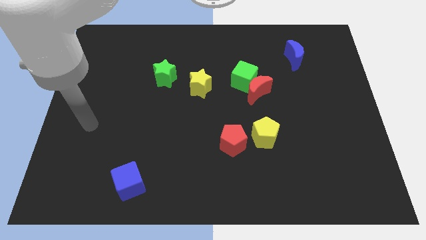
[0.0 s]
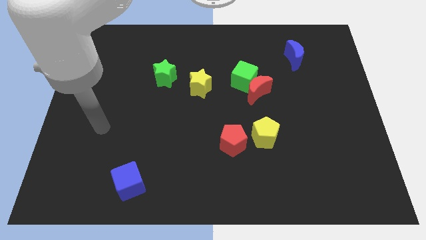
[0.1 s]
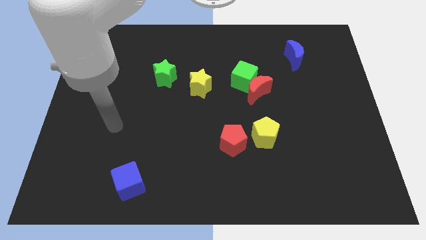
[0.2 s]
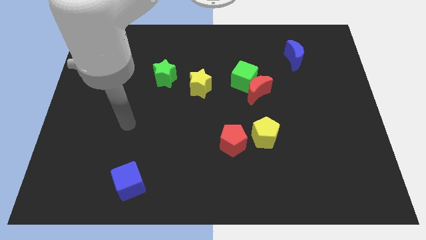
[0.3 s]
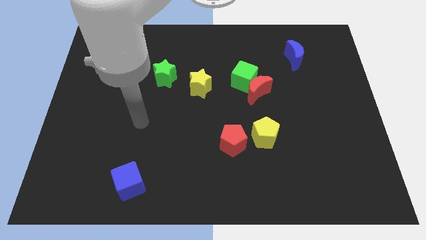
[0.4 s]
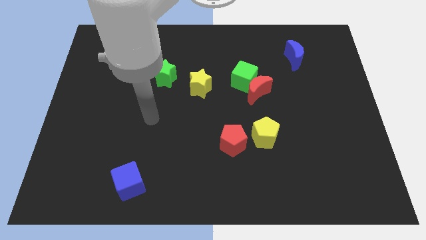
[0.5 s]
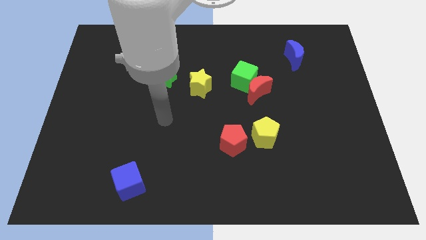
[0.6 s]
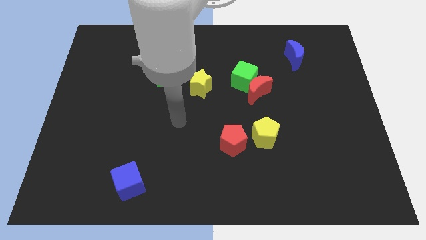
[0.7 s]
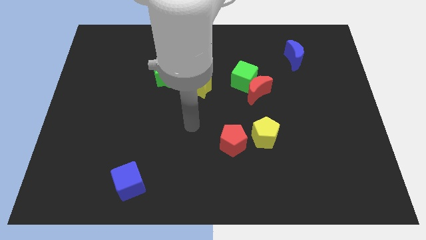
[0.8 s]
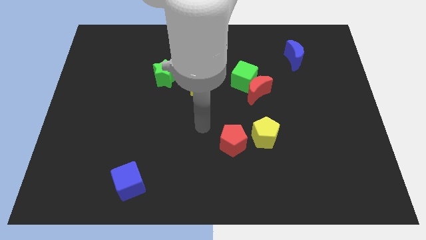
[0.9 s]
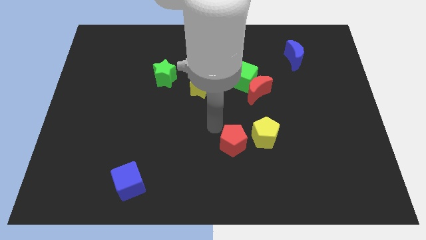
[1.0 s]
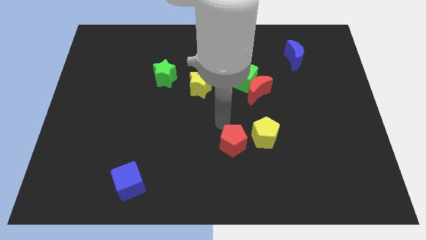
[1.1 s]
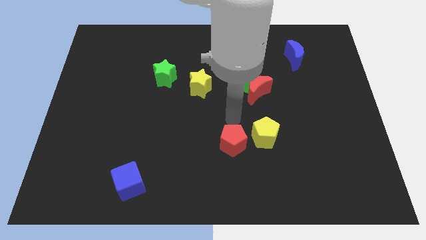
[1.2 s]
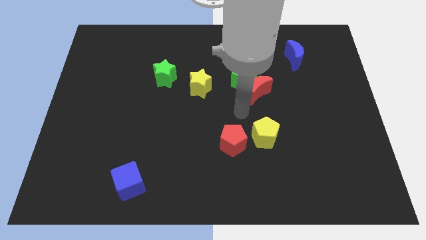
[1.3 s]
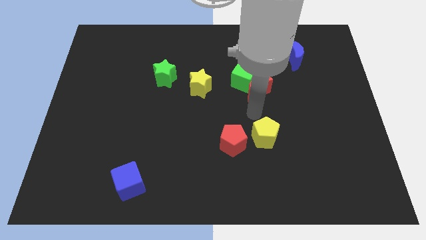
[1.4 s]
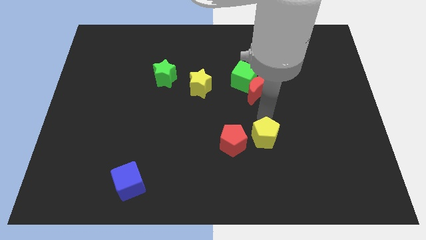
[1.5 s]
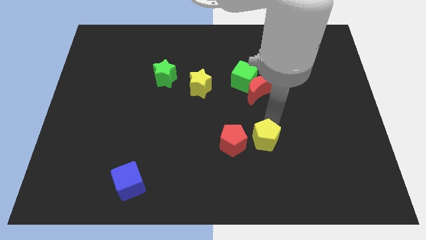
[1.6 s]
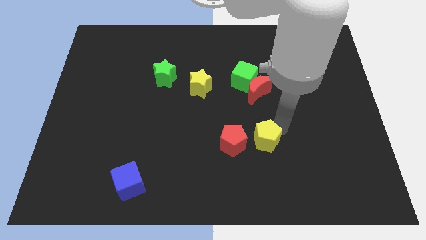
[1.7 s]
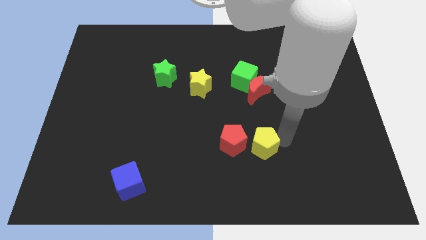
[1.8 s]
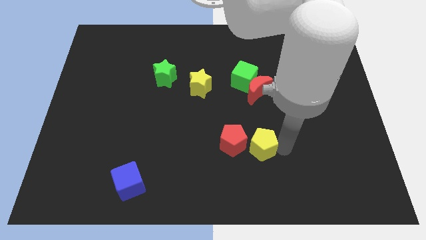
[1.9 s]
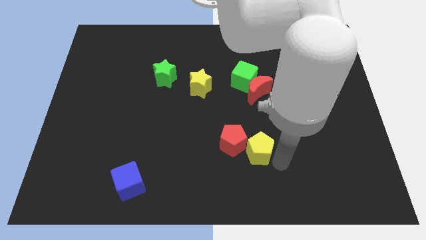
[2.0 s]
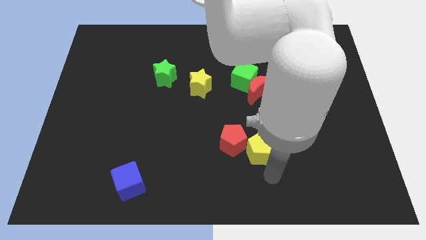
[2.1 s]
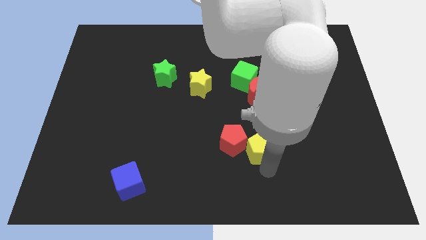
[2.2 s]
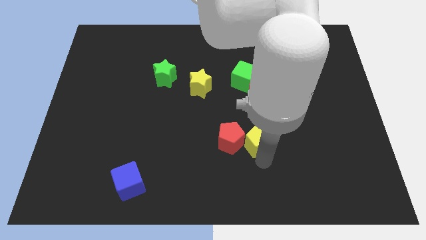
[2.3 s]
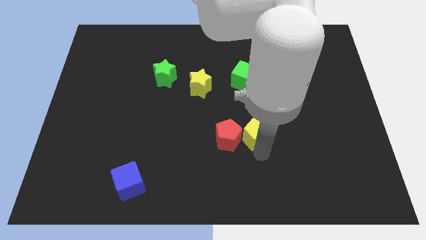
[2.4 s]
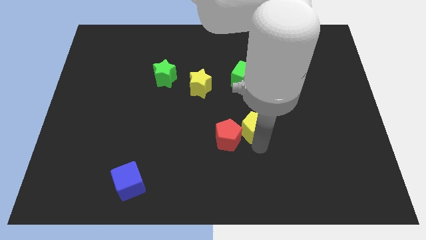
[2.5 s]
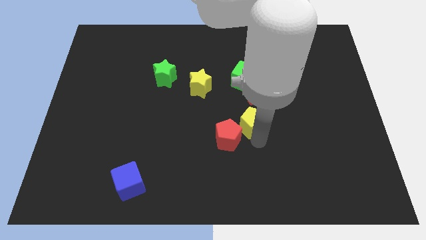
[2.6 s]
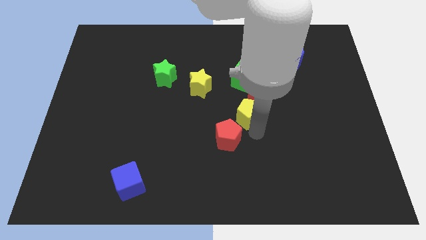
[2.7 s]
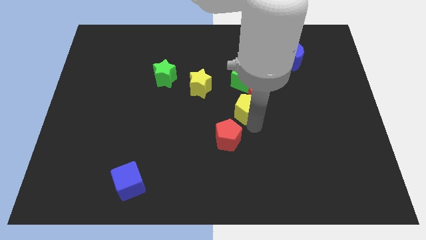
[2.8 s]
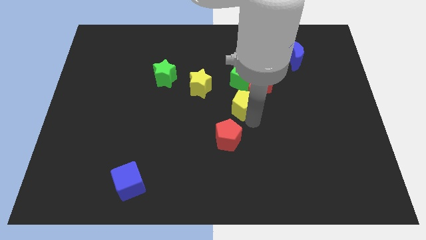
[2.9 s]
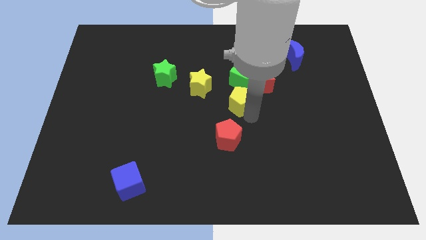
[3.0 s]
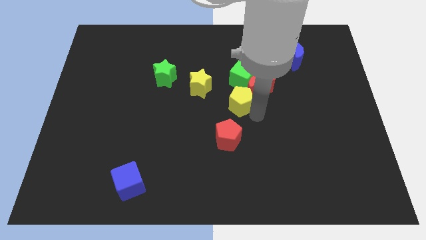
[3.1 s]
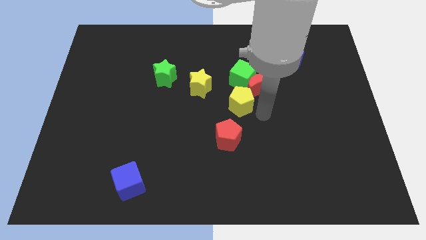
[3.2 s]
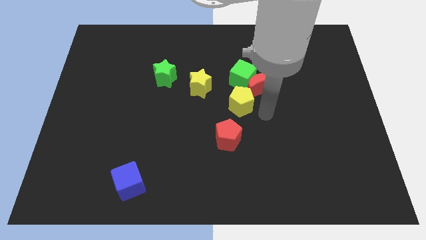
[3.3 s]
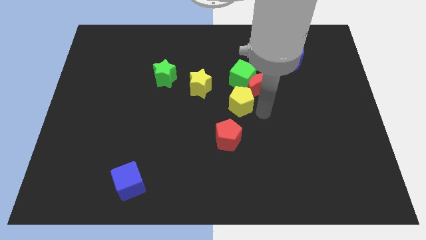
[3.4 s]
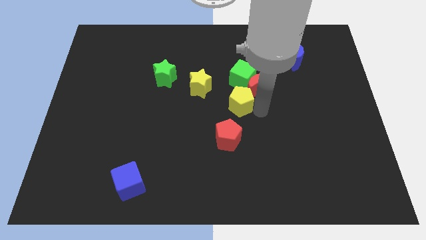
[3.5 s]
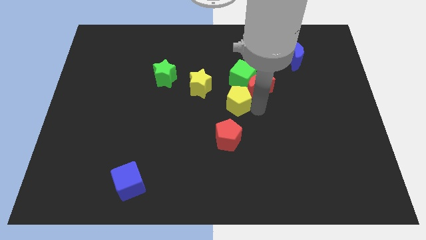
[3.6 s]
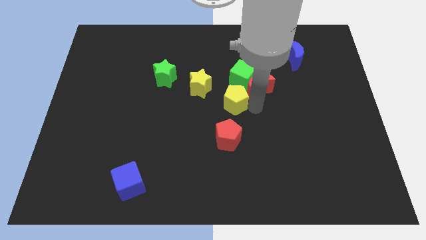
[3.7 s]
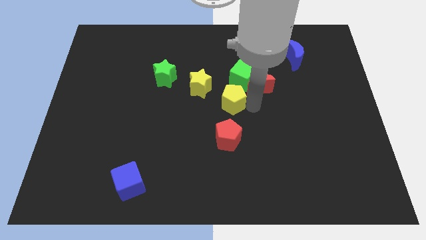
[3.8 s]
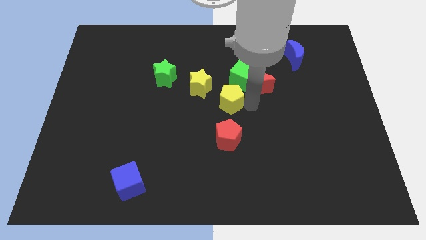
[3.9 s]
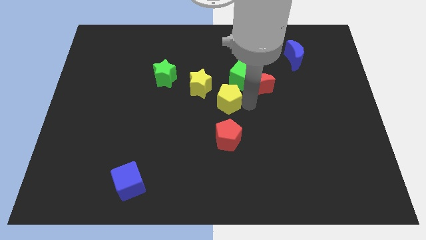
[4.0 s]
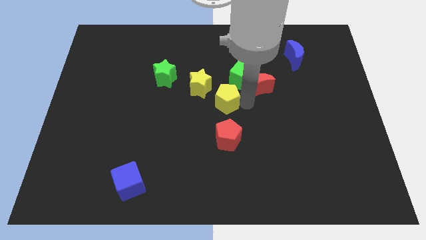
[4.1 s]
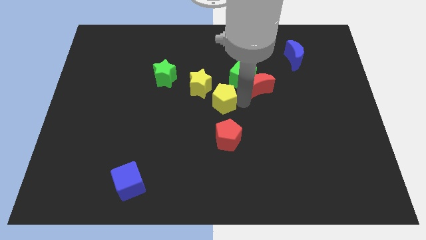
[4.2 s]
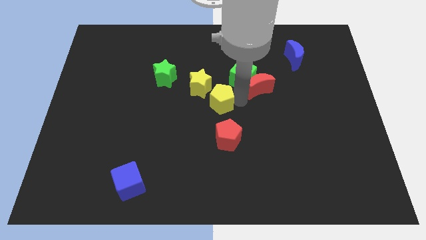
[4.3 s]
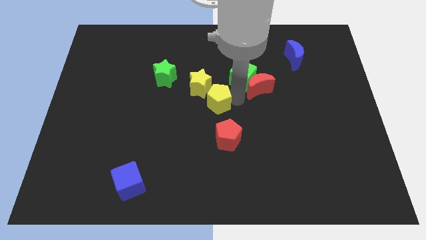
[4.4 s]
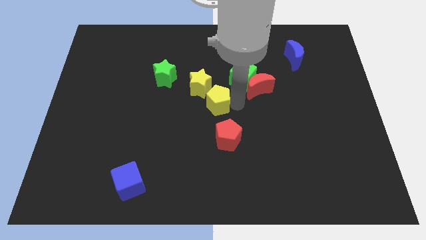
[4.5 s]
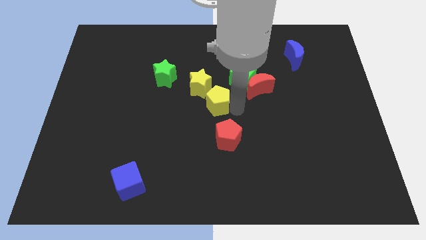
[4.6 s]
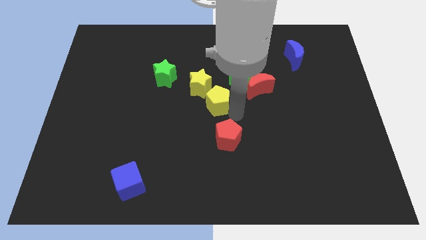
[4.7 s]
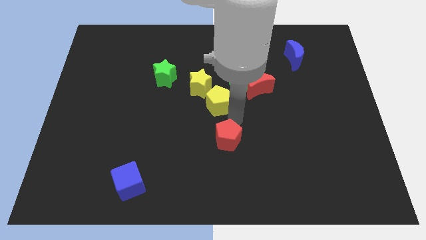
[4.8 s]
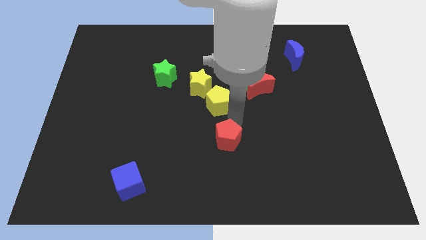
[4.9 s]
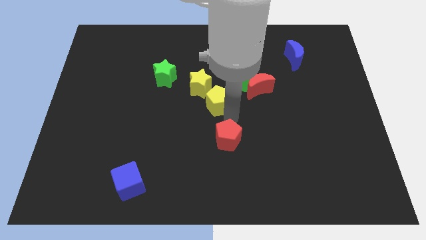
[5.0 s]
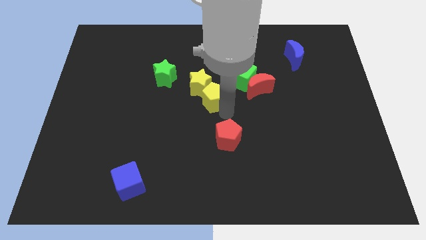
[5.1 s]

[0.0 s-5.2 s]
push the yellow pentagon next to the yellow star

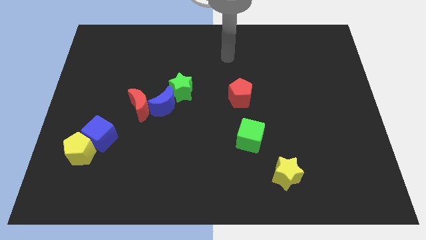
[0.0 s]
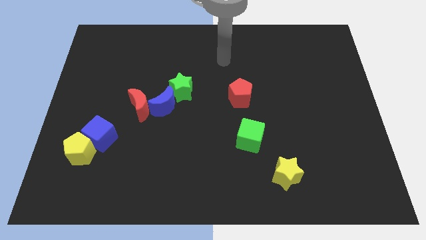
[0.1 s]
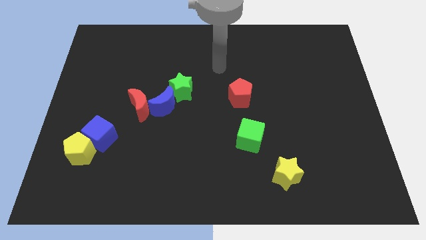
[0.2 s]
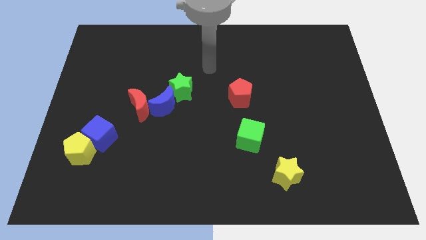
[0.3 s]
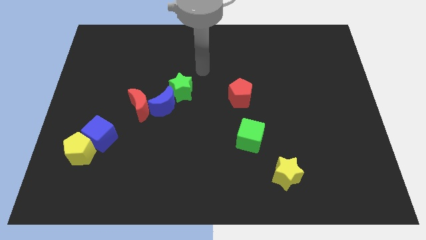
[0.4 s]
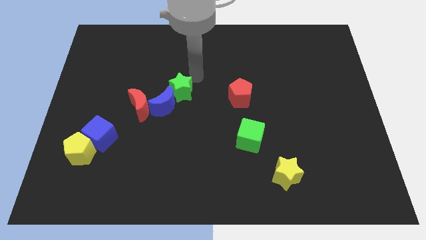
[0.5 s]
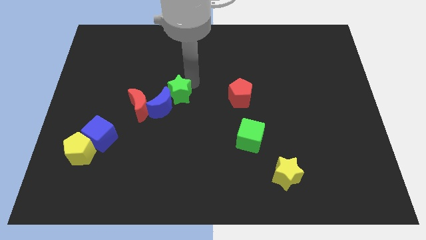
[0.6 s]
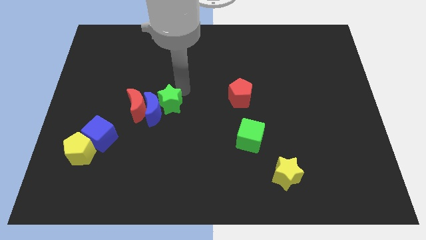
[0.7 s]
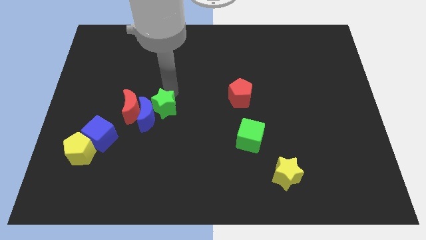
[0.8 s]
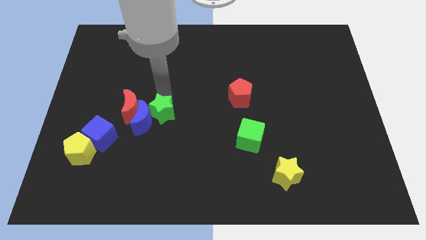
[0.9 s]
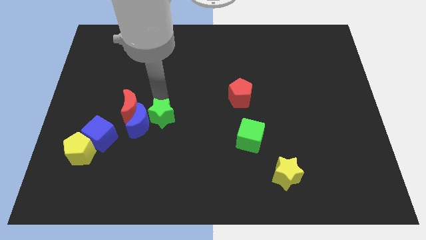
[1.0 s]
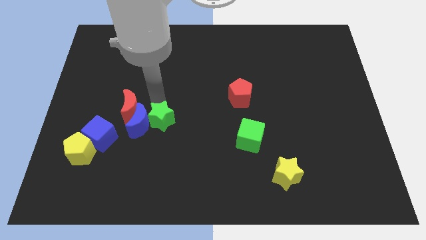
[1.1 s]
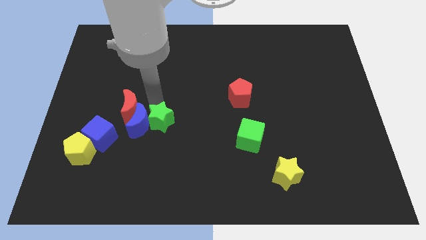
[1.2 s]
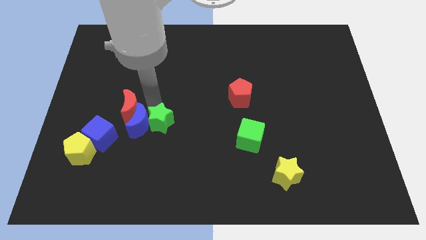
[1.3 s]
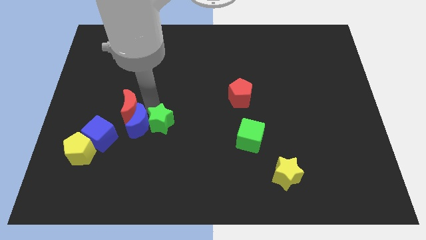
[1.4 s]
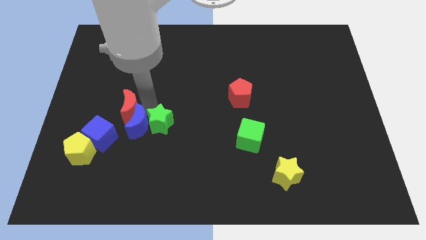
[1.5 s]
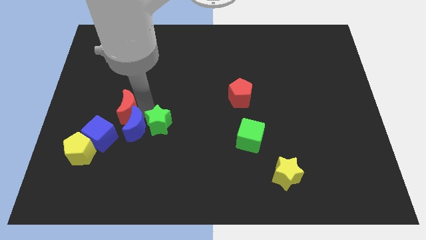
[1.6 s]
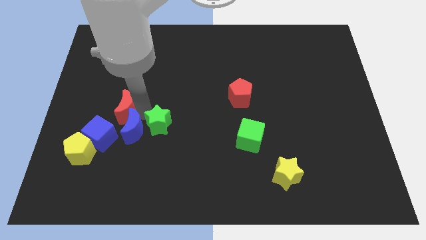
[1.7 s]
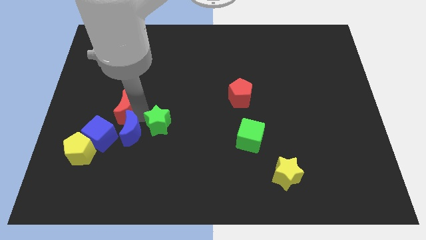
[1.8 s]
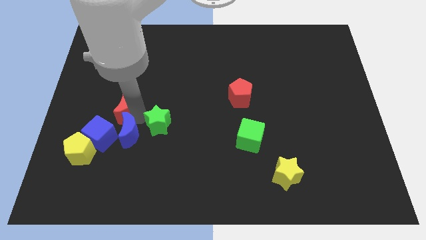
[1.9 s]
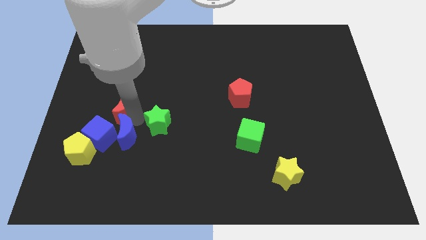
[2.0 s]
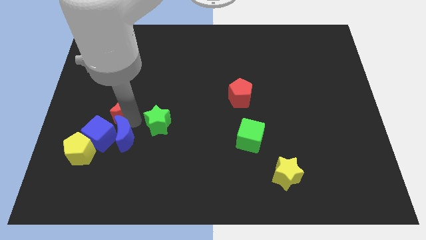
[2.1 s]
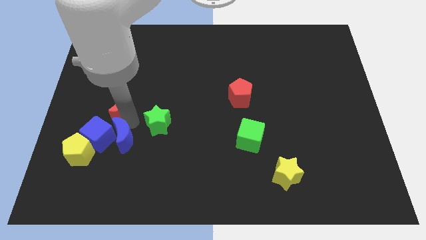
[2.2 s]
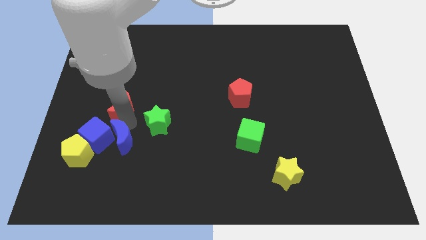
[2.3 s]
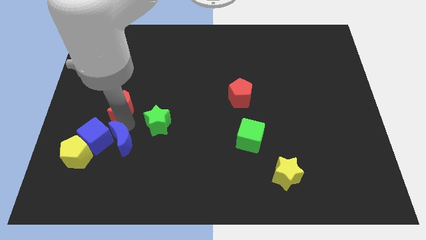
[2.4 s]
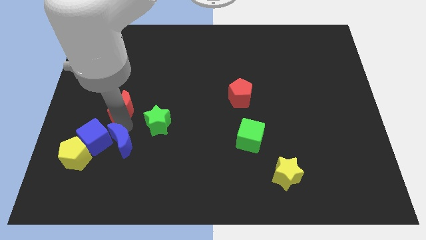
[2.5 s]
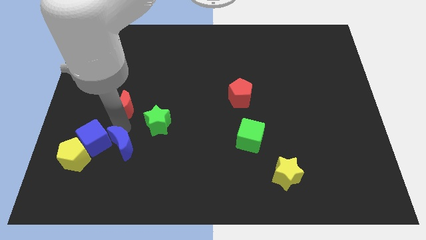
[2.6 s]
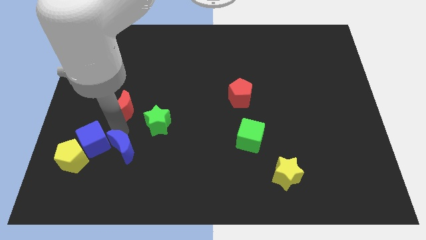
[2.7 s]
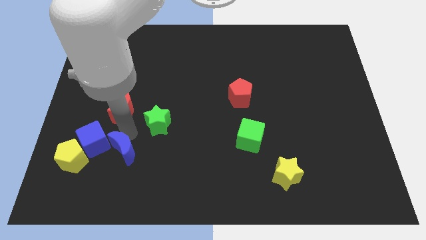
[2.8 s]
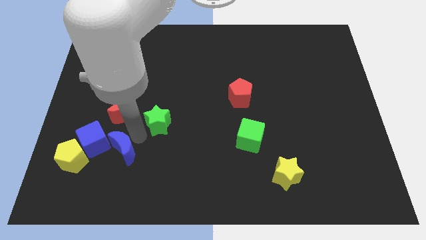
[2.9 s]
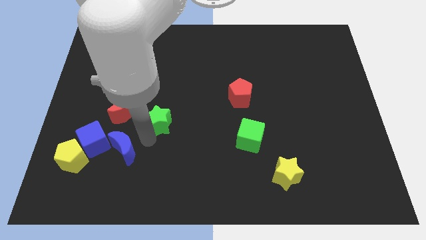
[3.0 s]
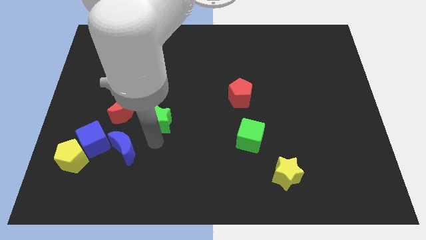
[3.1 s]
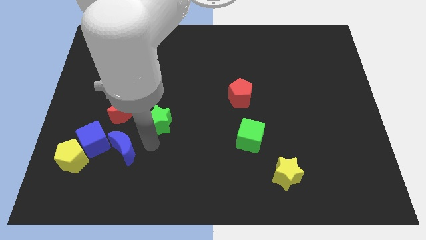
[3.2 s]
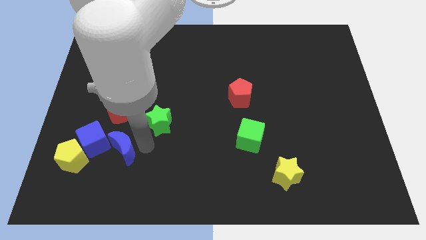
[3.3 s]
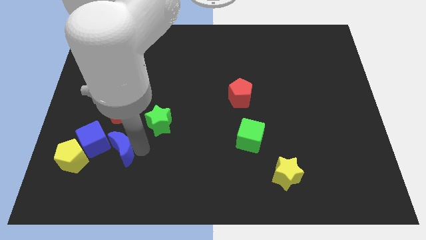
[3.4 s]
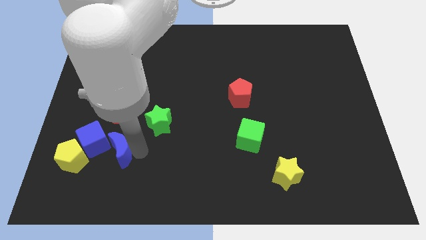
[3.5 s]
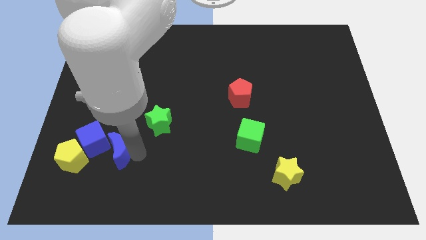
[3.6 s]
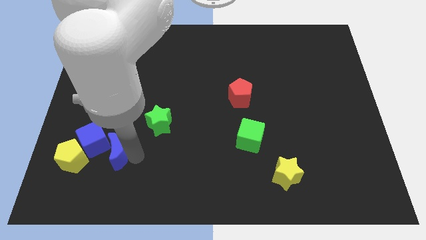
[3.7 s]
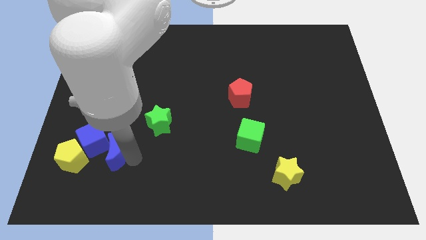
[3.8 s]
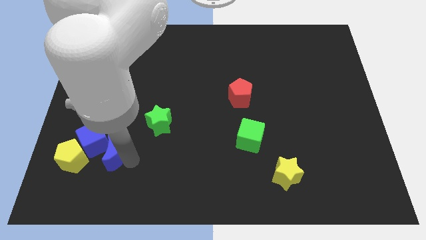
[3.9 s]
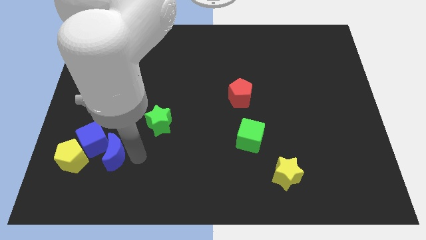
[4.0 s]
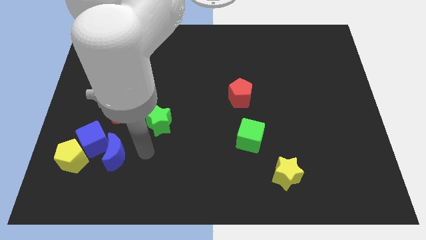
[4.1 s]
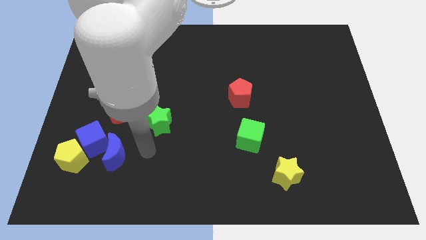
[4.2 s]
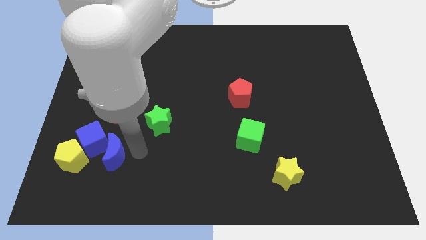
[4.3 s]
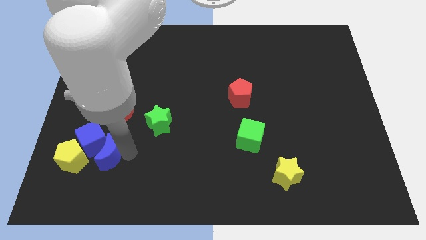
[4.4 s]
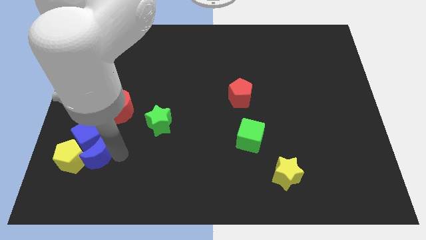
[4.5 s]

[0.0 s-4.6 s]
put the blue moon next to the yellow pentagon
